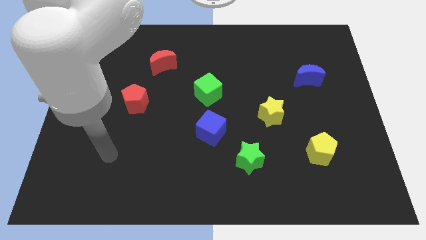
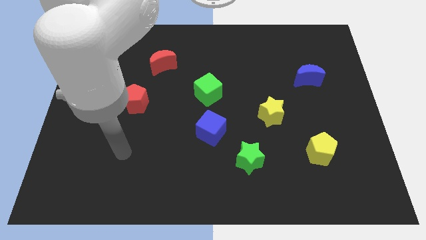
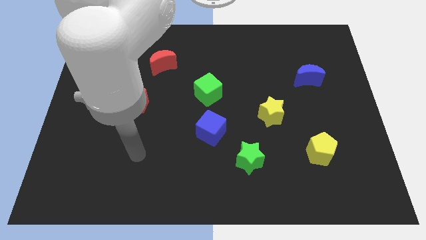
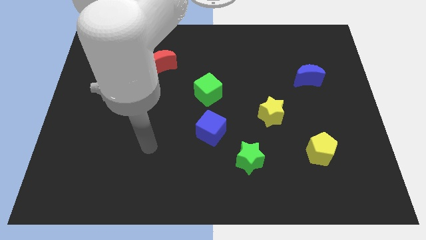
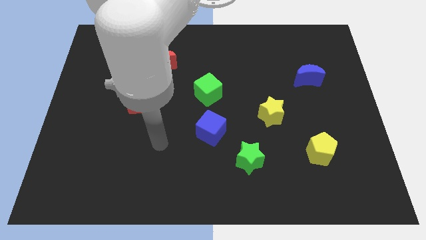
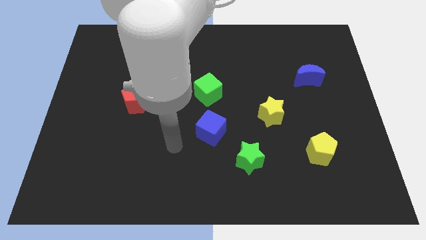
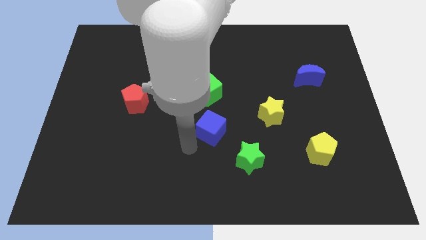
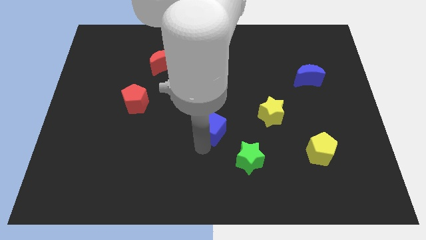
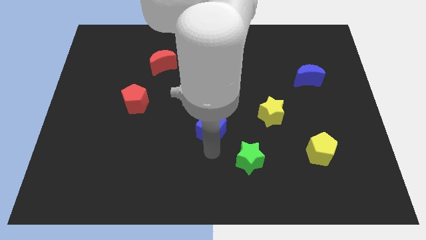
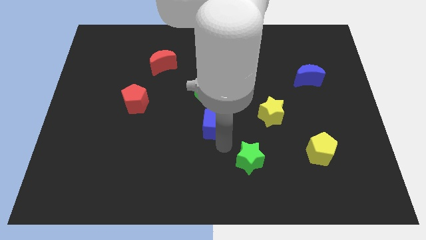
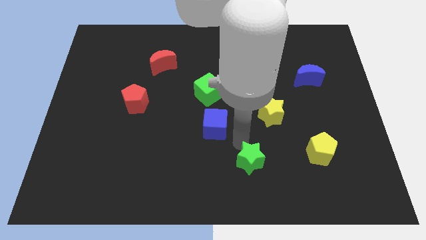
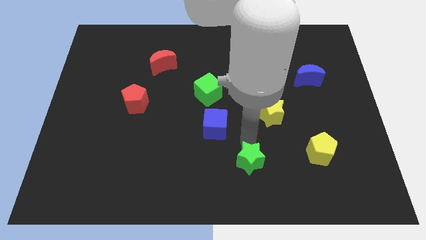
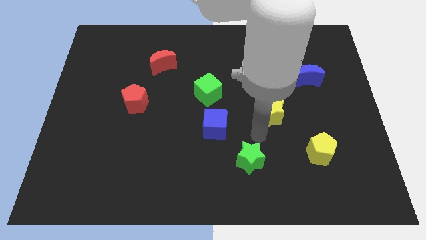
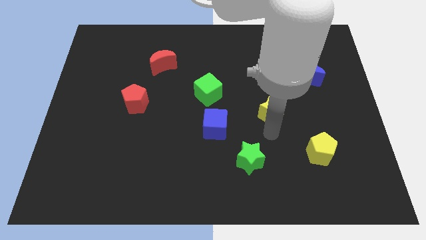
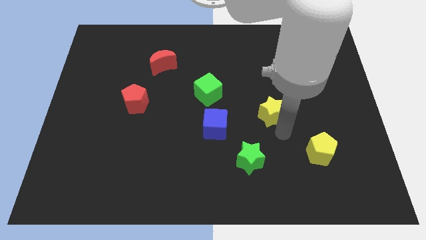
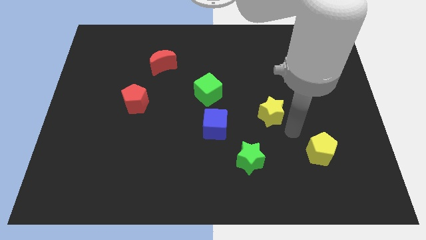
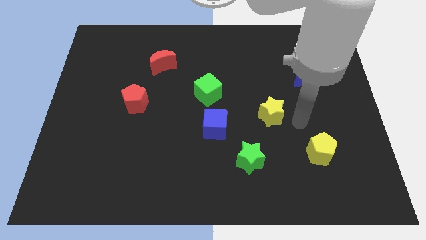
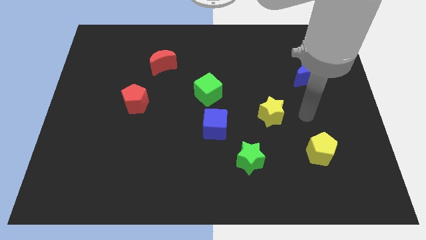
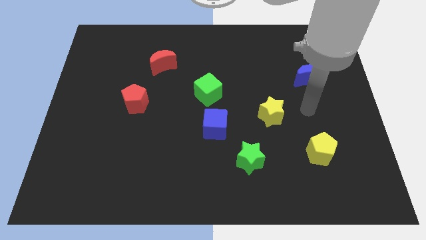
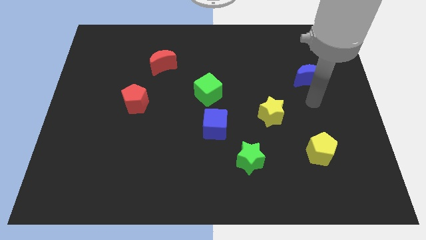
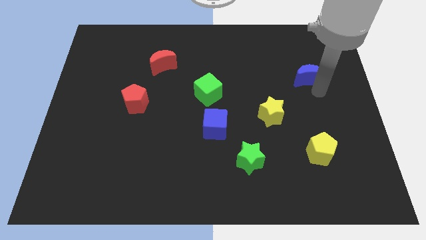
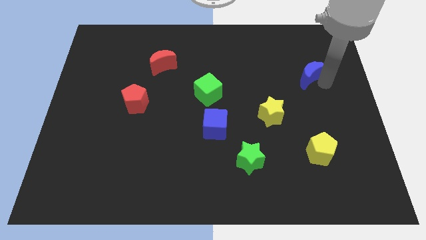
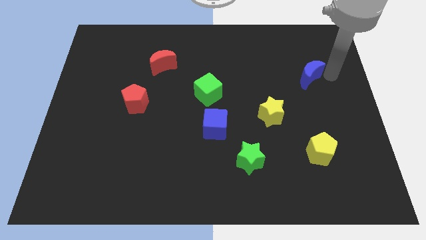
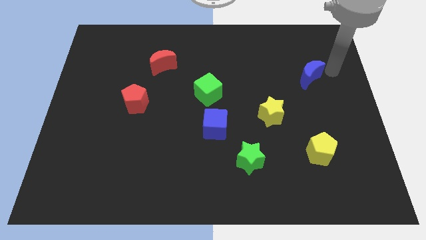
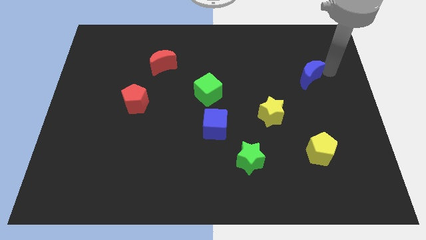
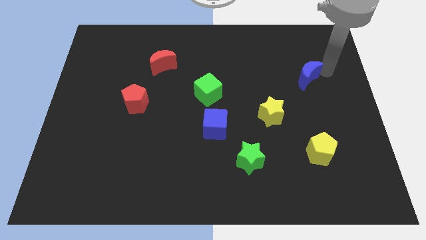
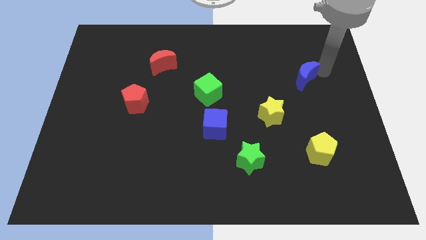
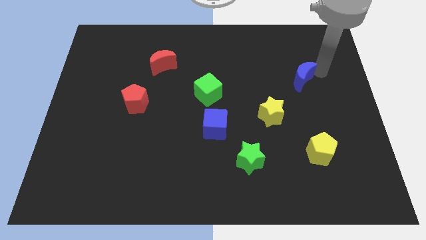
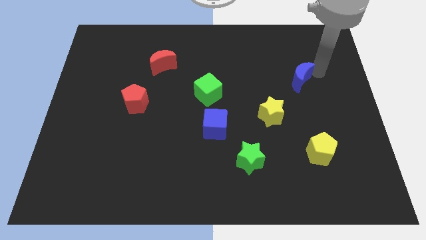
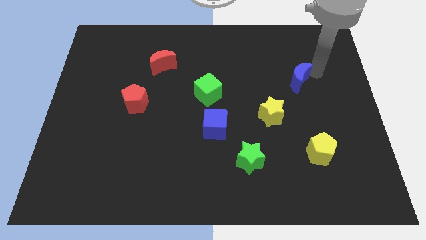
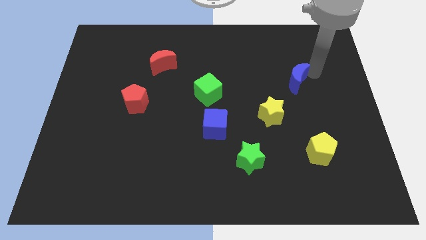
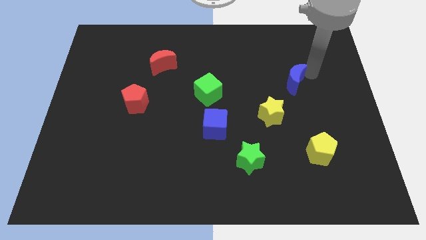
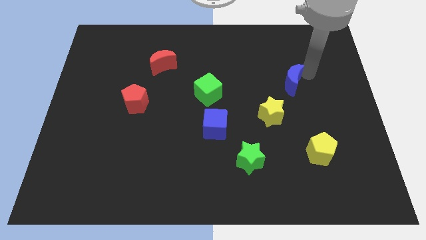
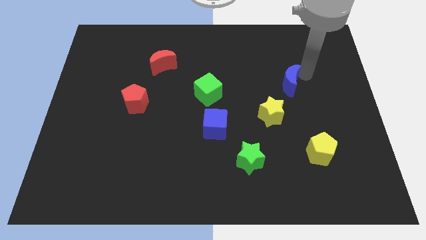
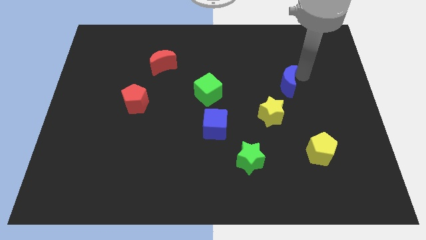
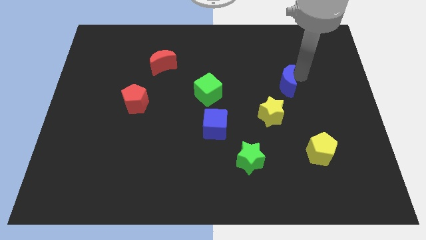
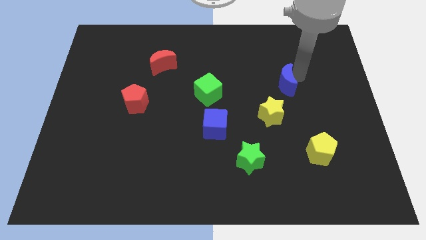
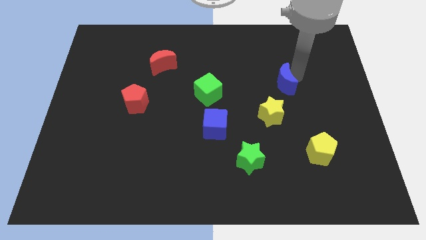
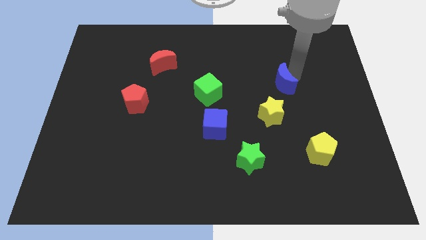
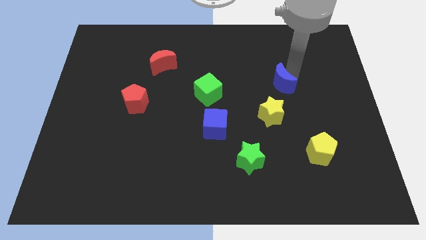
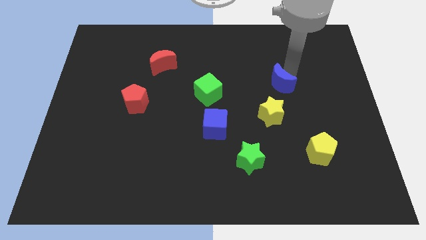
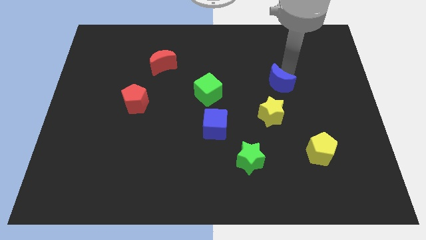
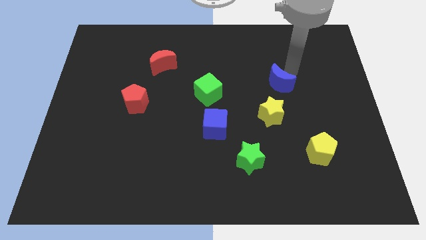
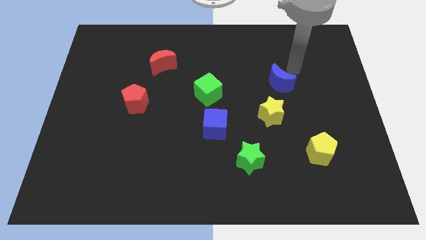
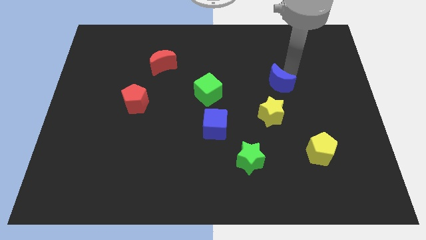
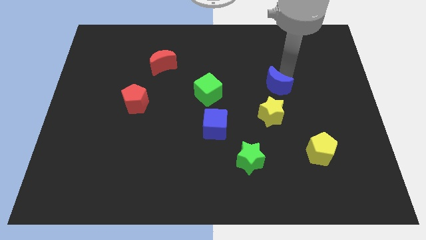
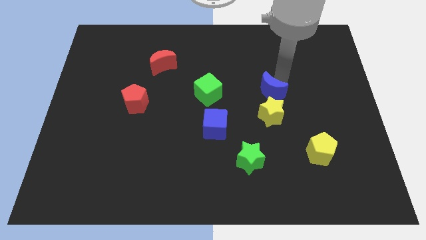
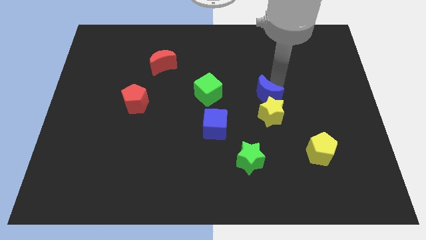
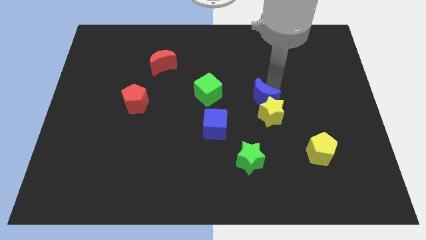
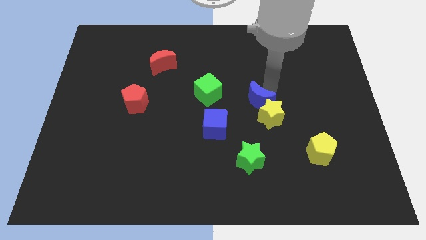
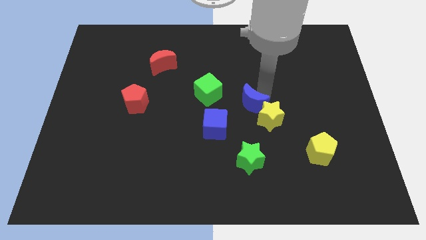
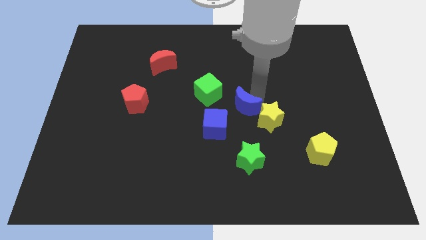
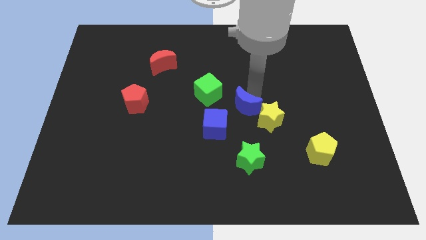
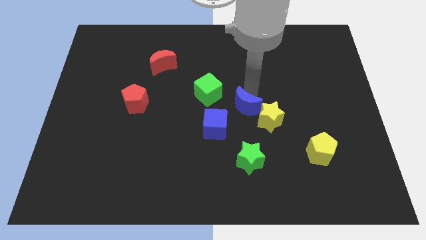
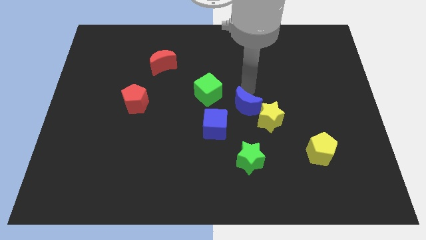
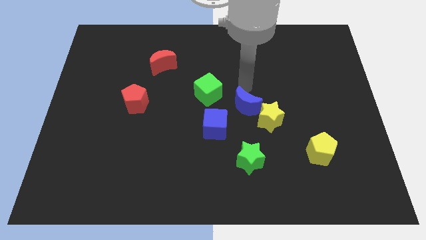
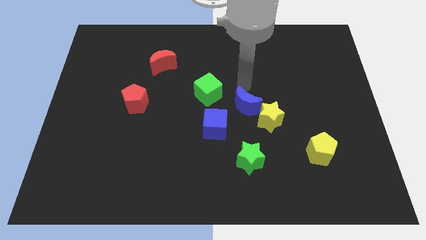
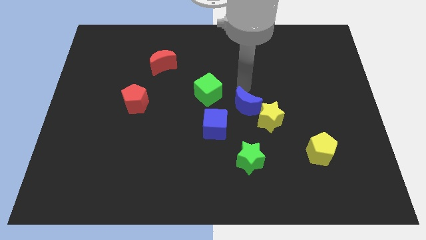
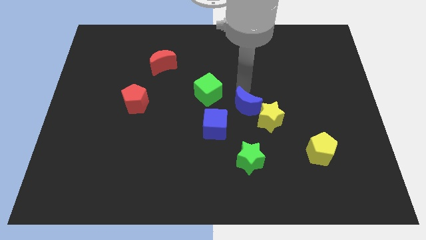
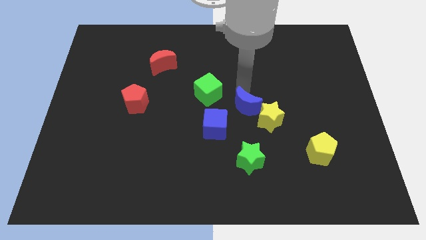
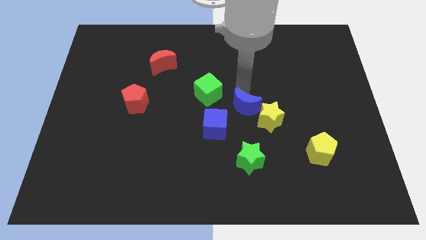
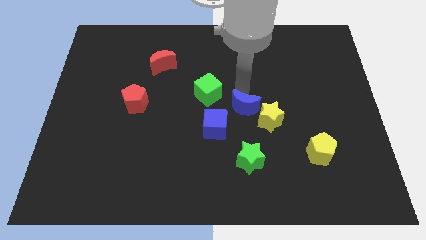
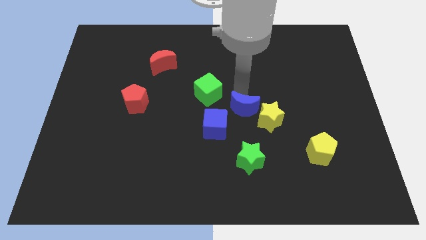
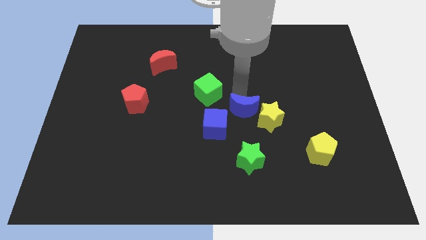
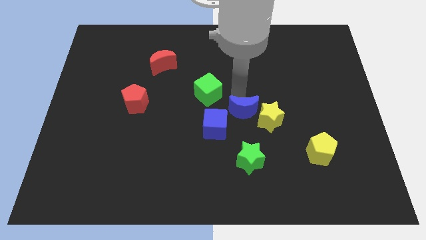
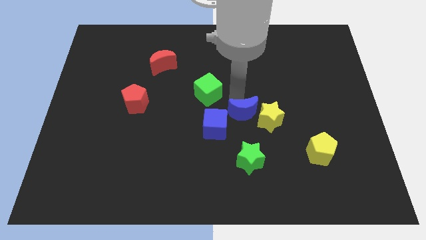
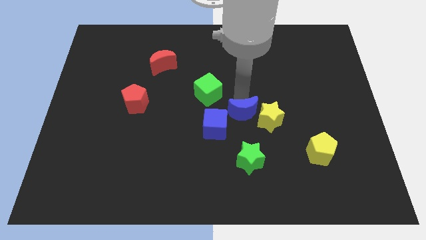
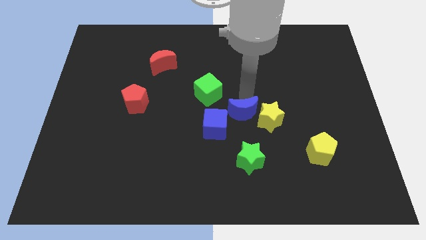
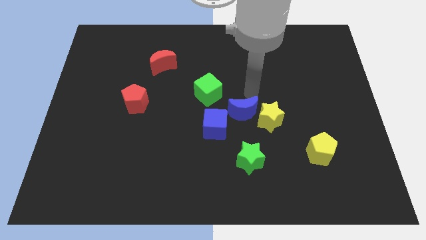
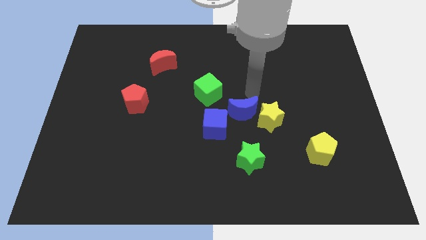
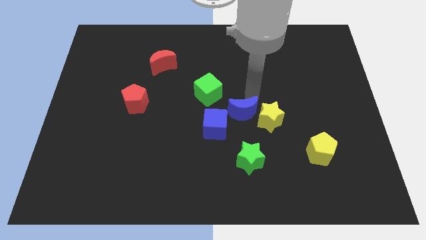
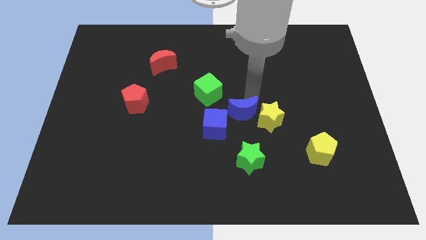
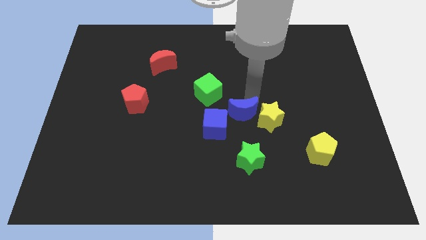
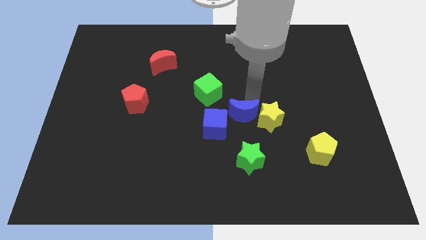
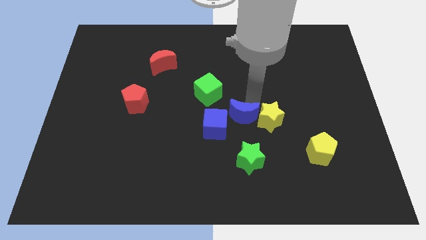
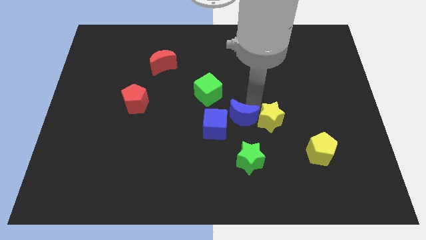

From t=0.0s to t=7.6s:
slide the blue moon down and to the left diagonally

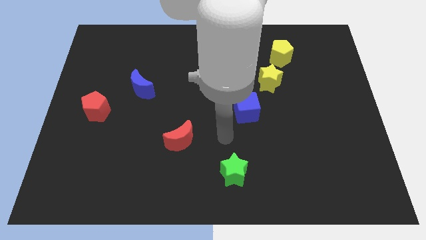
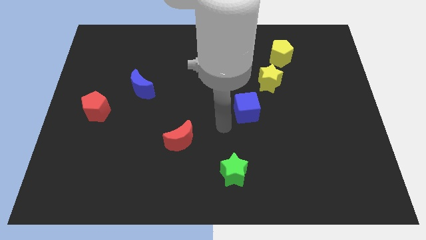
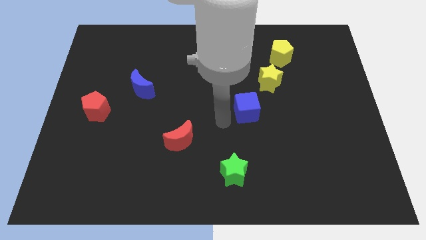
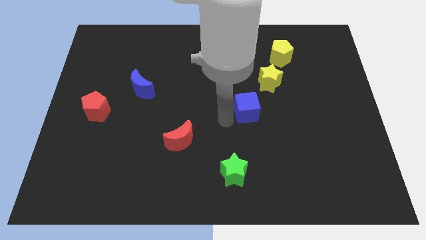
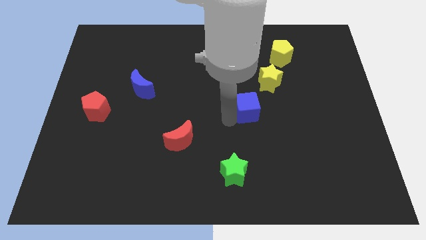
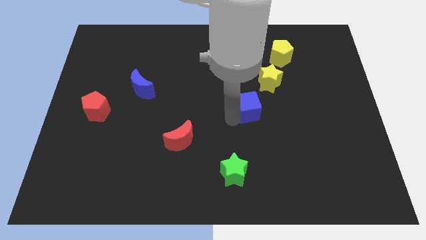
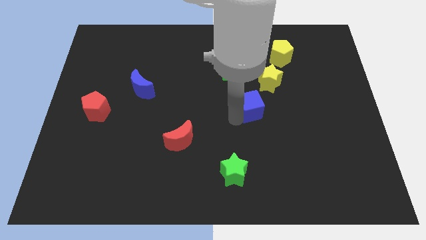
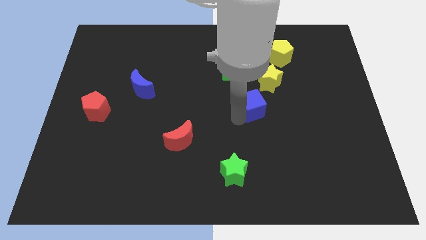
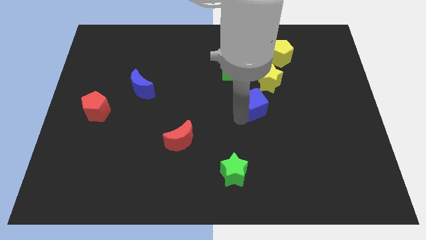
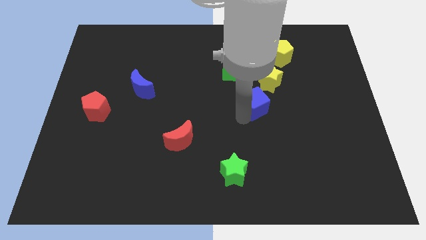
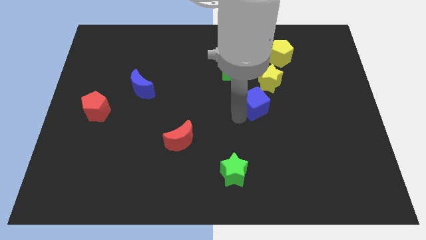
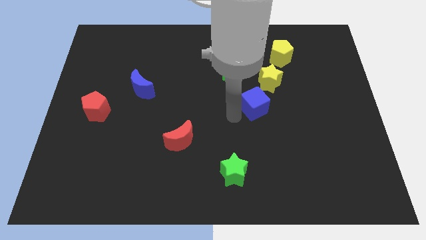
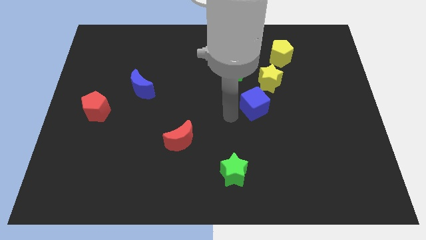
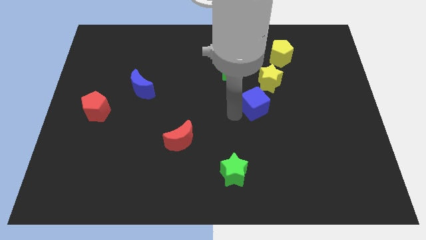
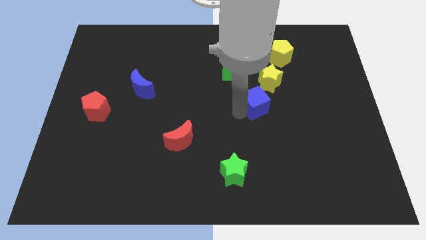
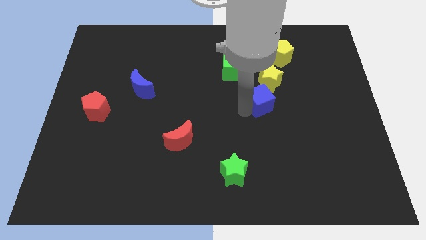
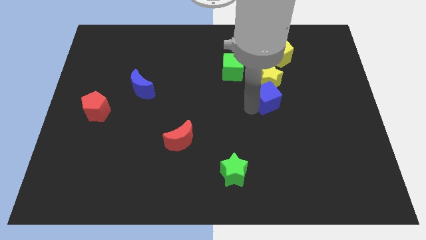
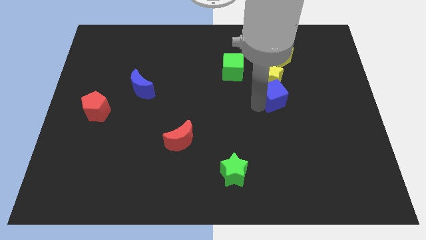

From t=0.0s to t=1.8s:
slightly push the blue cube upwards and then right
